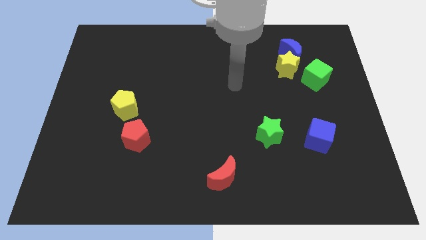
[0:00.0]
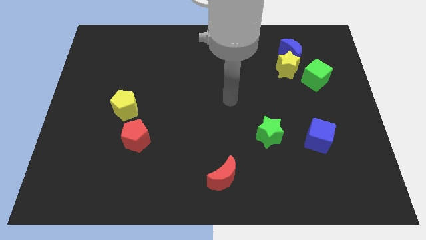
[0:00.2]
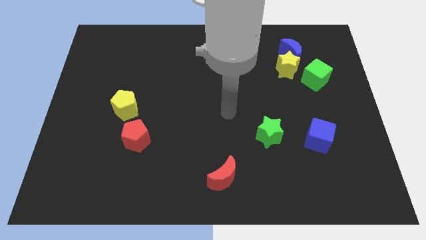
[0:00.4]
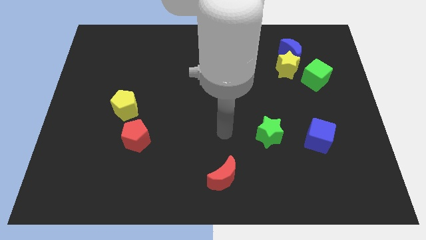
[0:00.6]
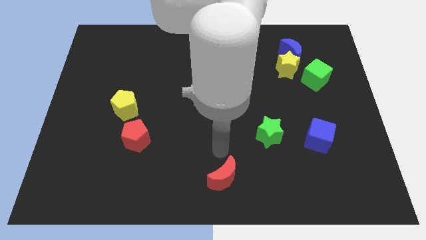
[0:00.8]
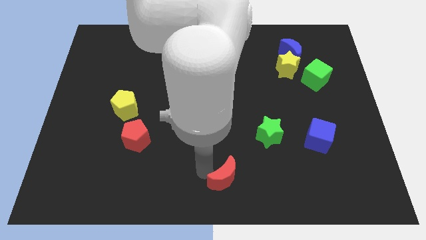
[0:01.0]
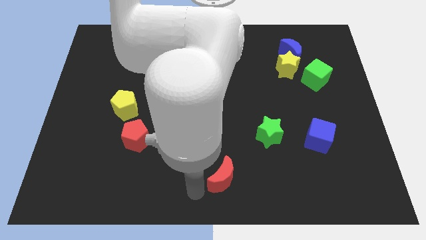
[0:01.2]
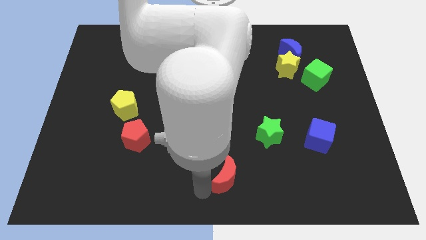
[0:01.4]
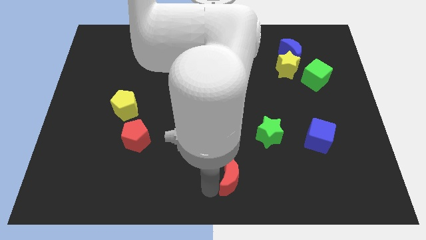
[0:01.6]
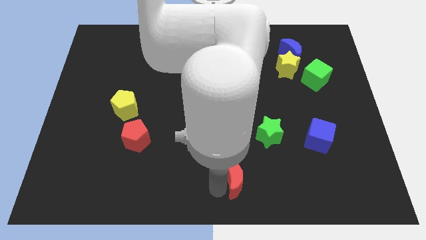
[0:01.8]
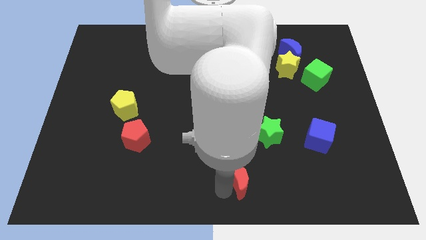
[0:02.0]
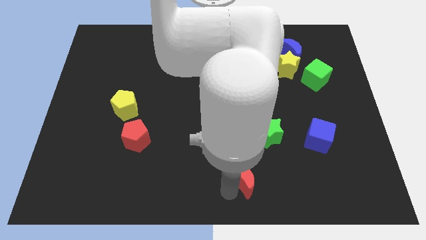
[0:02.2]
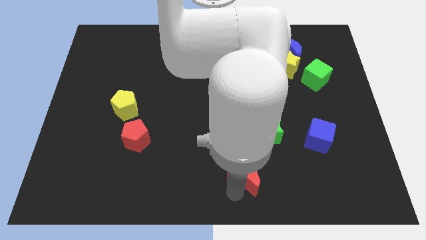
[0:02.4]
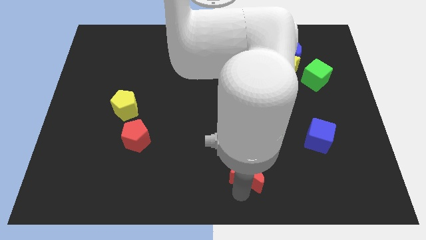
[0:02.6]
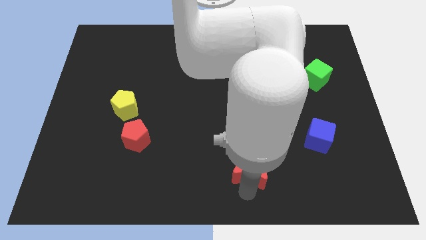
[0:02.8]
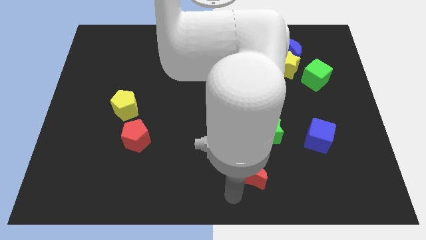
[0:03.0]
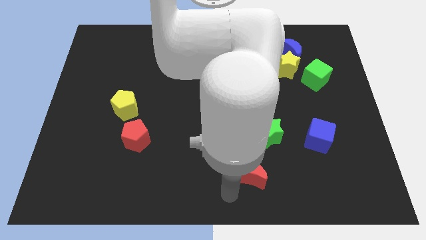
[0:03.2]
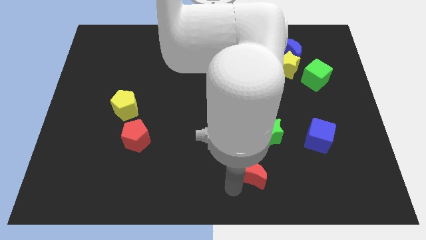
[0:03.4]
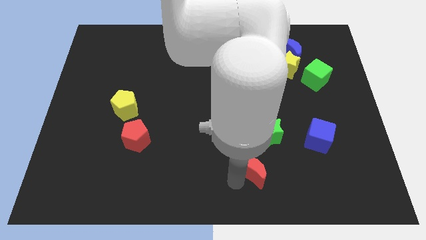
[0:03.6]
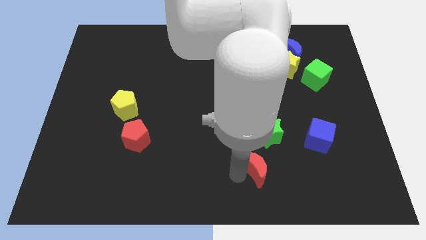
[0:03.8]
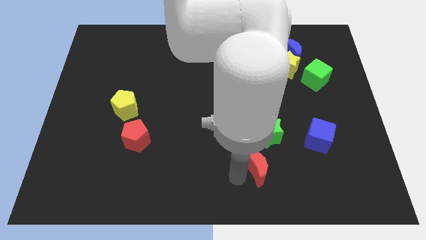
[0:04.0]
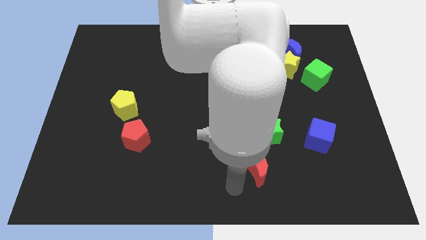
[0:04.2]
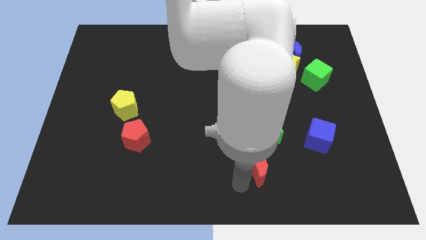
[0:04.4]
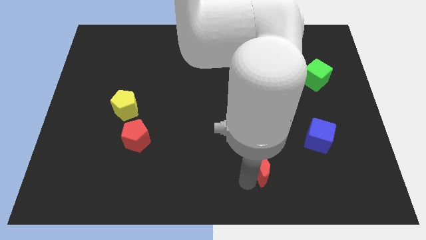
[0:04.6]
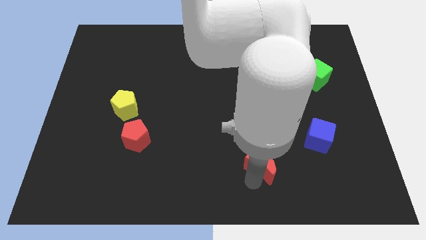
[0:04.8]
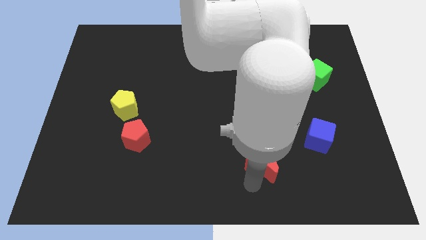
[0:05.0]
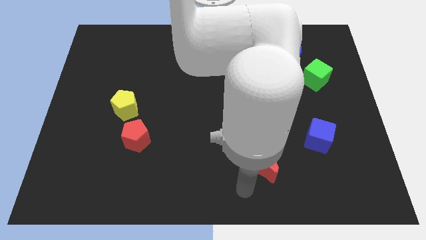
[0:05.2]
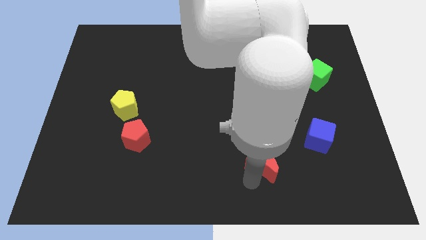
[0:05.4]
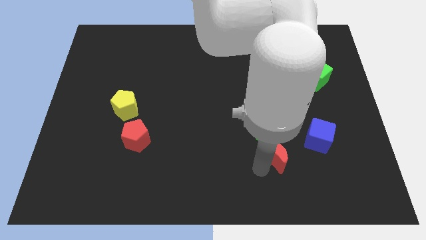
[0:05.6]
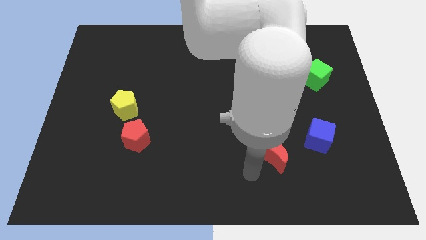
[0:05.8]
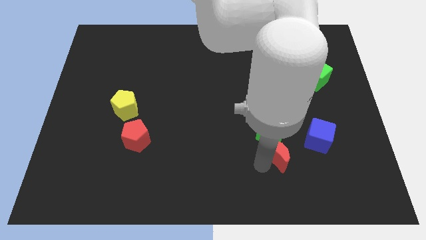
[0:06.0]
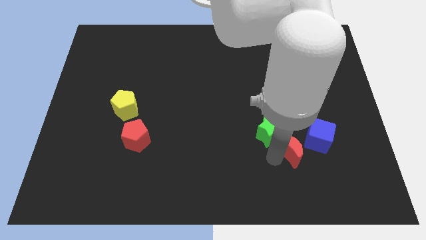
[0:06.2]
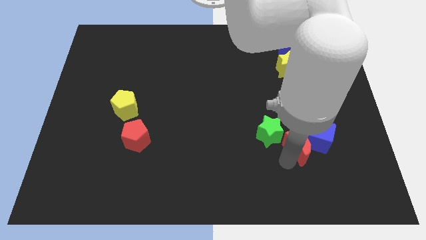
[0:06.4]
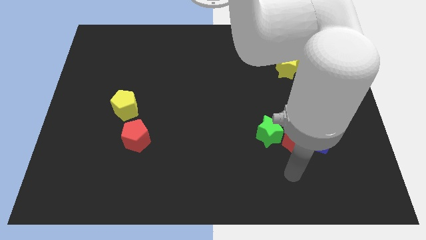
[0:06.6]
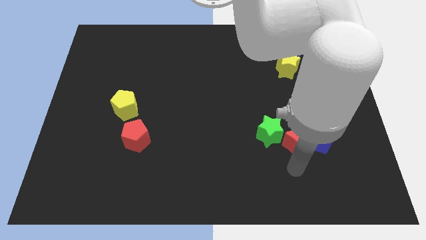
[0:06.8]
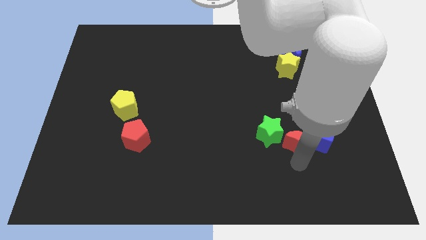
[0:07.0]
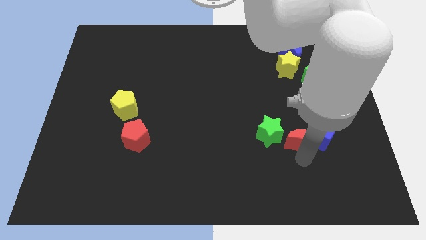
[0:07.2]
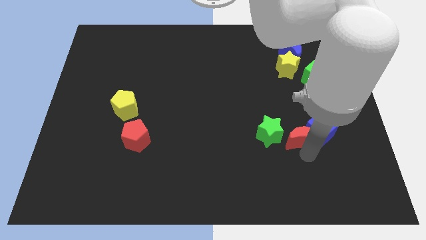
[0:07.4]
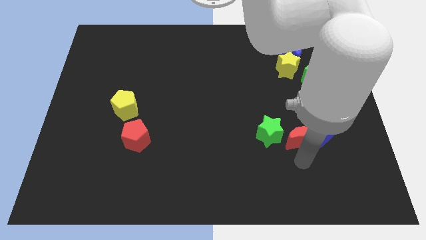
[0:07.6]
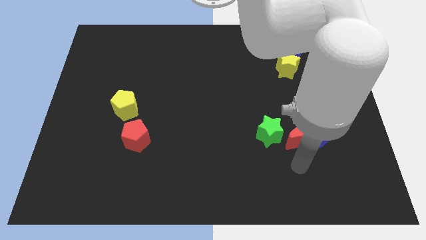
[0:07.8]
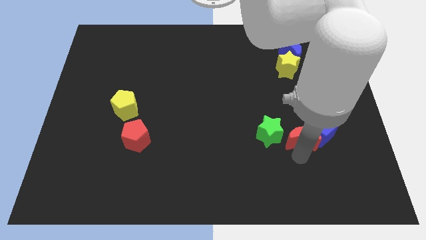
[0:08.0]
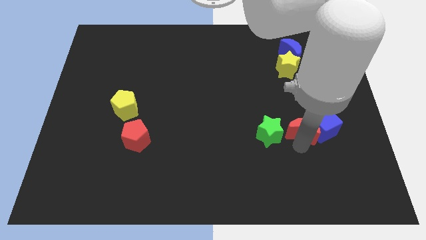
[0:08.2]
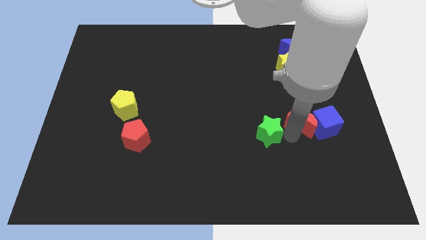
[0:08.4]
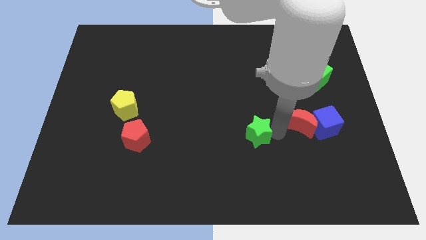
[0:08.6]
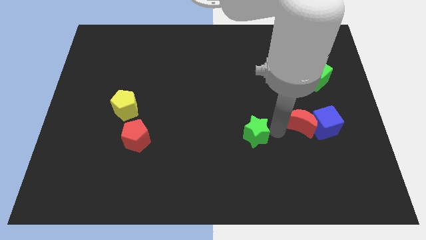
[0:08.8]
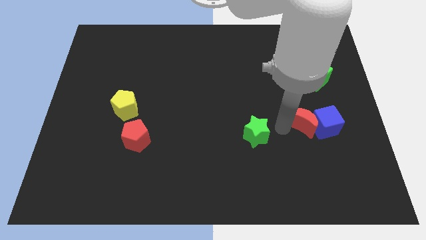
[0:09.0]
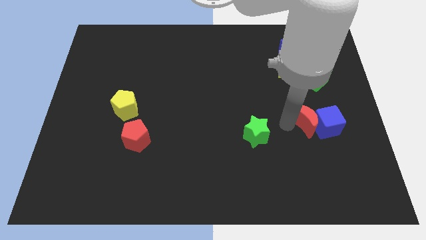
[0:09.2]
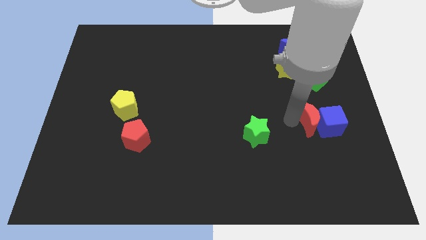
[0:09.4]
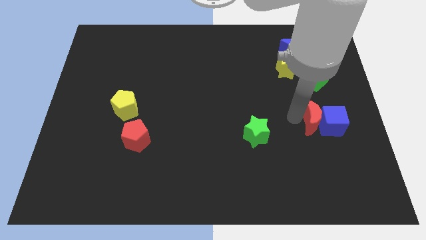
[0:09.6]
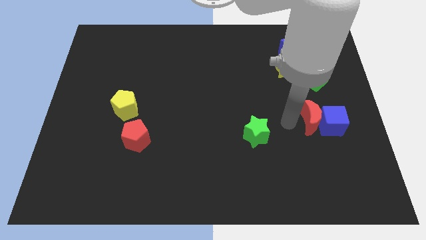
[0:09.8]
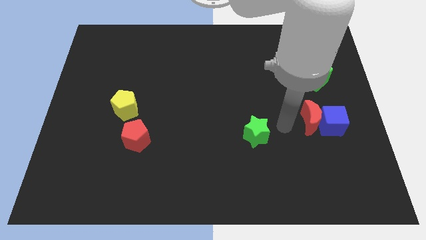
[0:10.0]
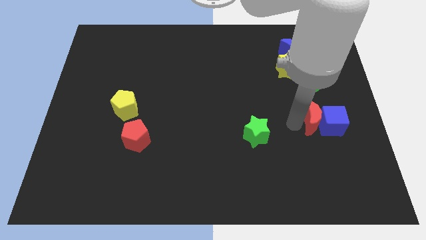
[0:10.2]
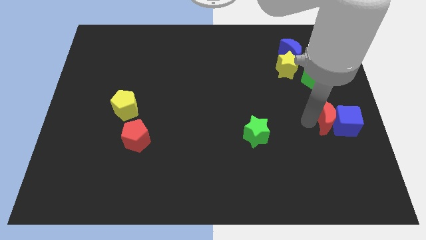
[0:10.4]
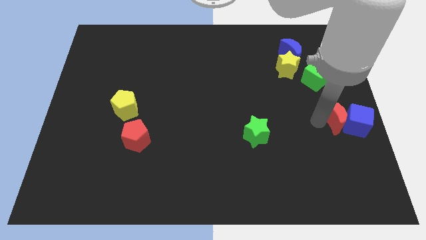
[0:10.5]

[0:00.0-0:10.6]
push the red moon to the center right
